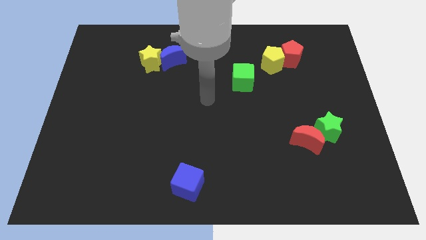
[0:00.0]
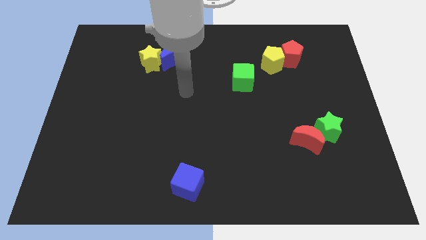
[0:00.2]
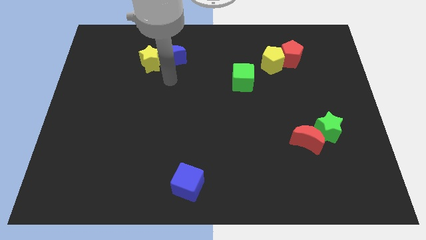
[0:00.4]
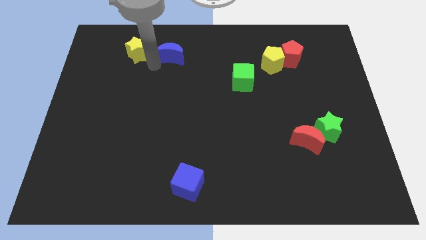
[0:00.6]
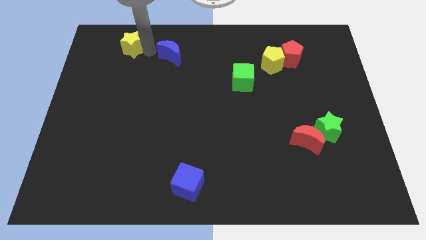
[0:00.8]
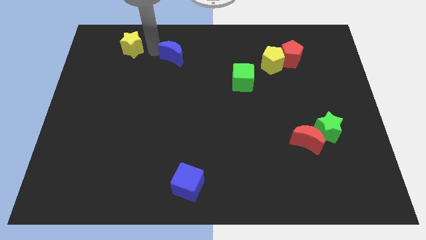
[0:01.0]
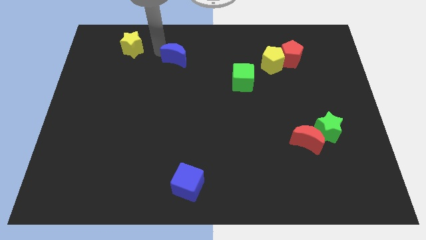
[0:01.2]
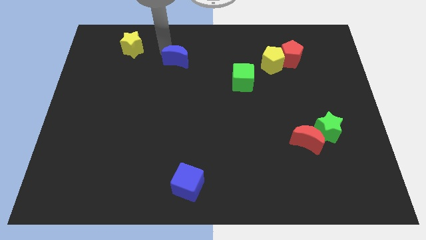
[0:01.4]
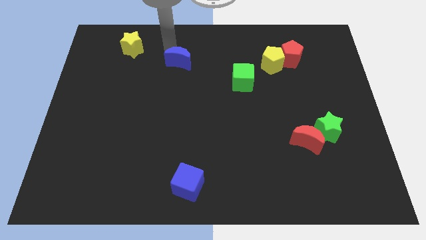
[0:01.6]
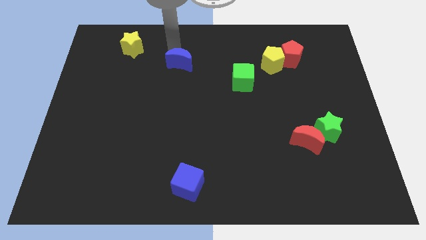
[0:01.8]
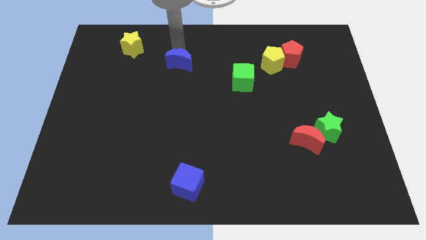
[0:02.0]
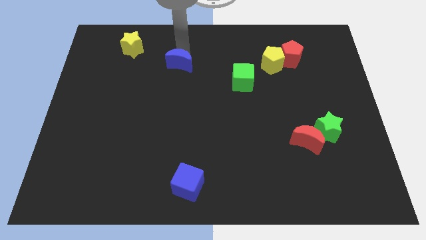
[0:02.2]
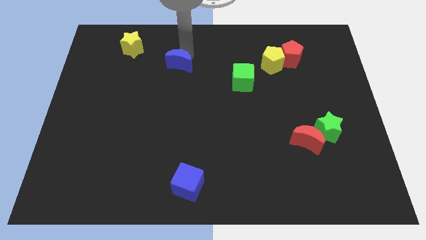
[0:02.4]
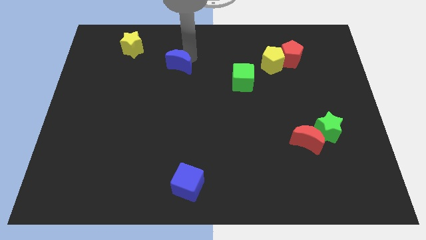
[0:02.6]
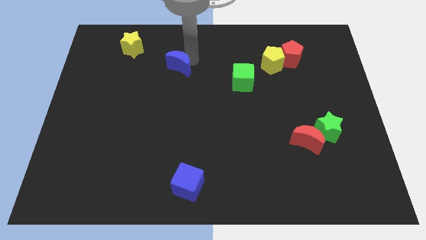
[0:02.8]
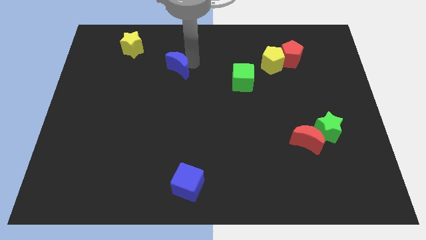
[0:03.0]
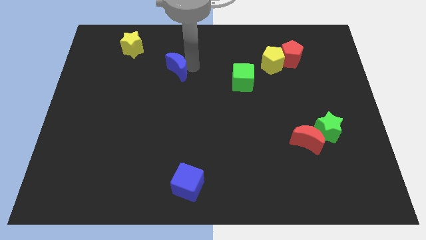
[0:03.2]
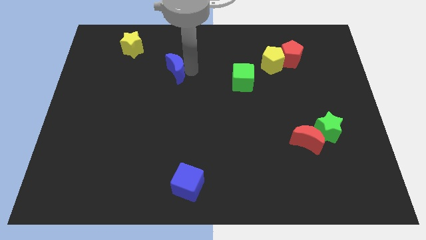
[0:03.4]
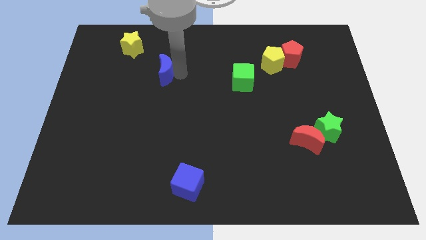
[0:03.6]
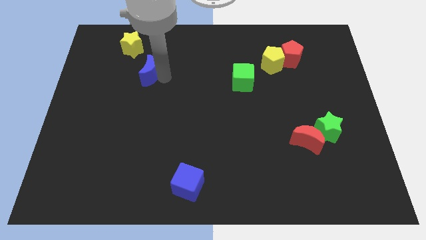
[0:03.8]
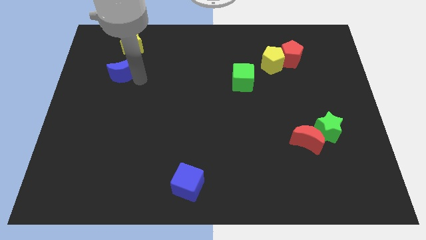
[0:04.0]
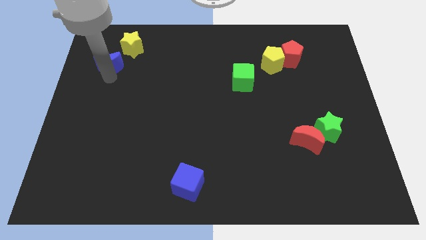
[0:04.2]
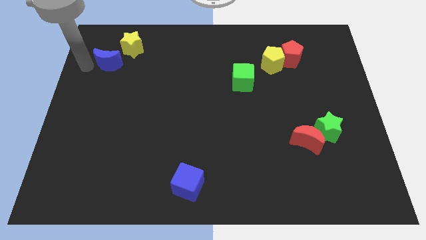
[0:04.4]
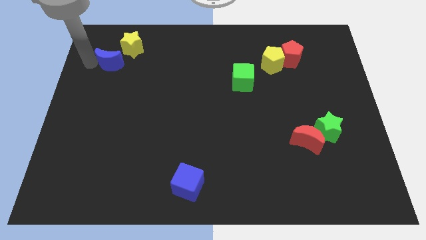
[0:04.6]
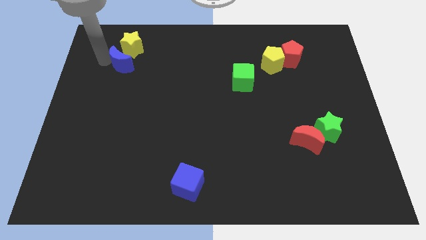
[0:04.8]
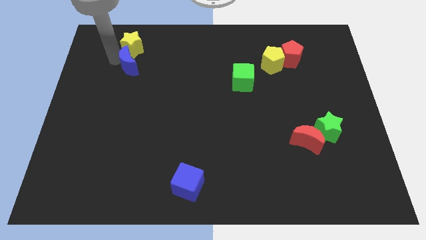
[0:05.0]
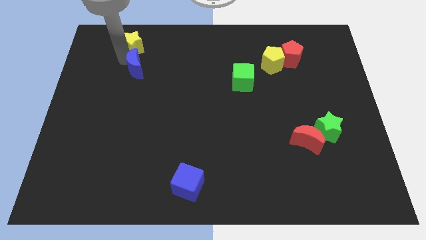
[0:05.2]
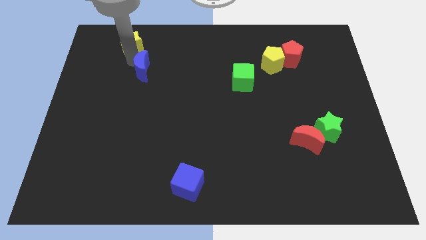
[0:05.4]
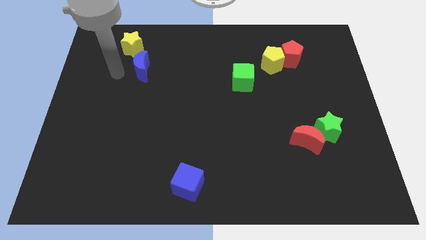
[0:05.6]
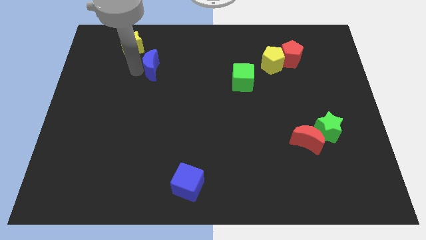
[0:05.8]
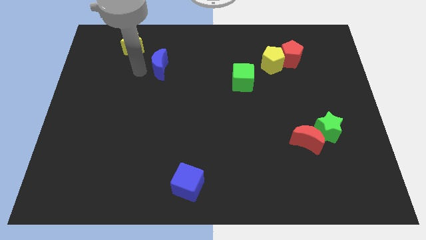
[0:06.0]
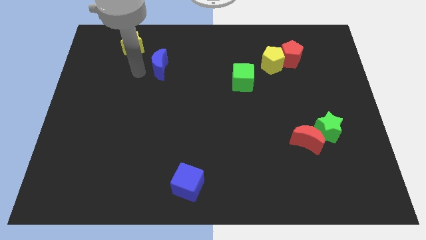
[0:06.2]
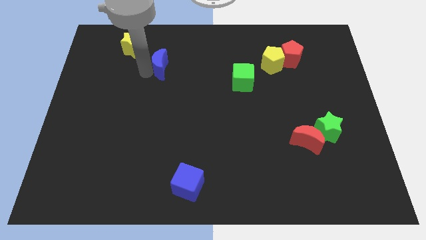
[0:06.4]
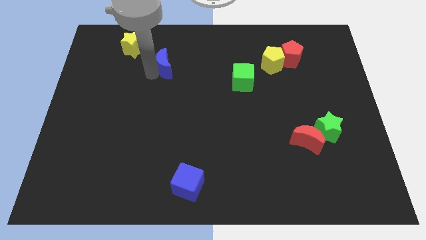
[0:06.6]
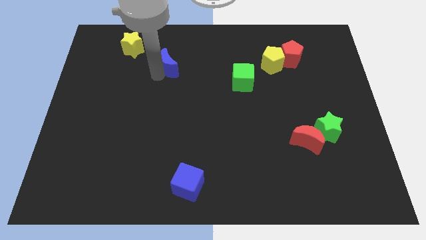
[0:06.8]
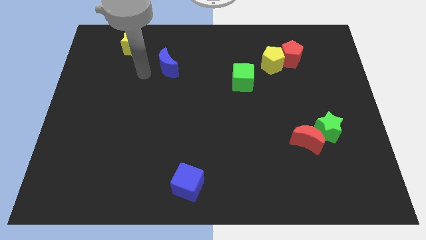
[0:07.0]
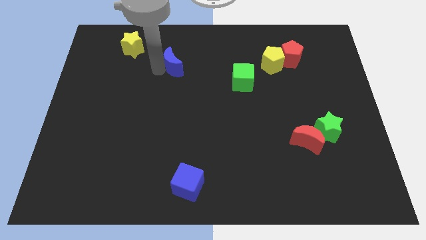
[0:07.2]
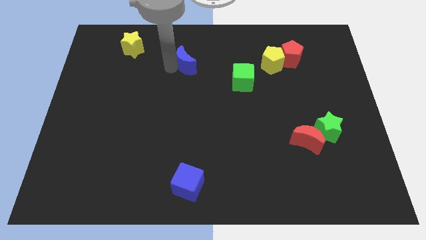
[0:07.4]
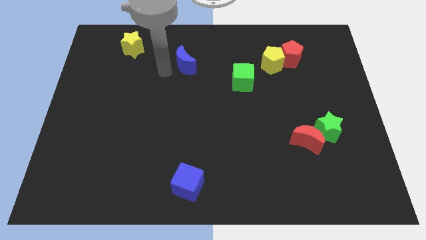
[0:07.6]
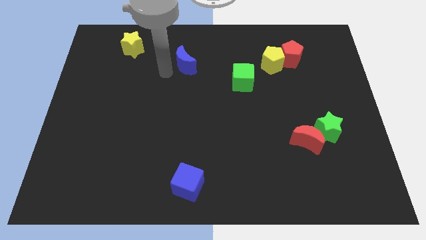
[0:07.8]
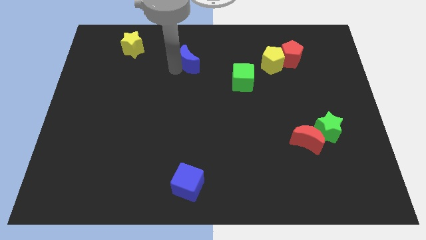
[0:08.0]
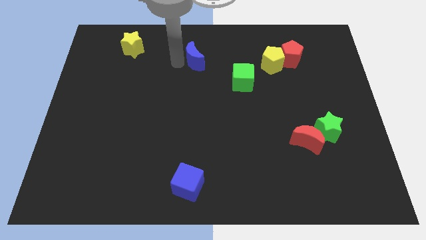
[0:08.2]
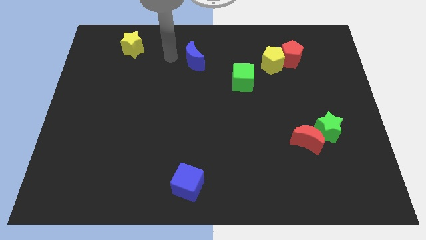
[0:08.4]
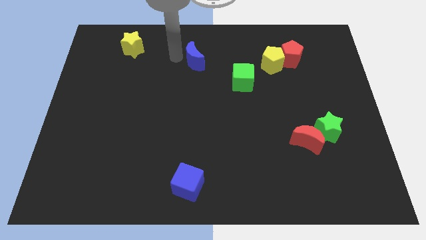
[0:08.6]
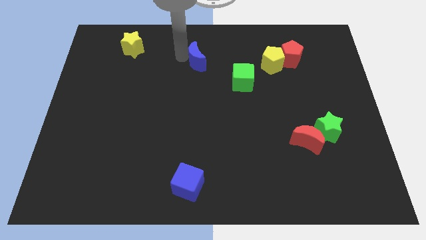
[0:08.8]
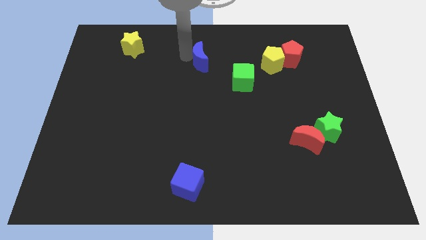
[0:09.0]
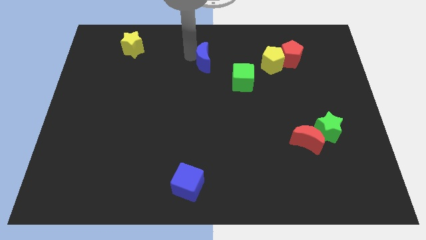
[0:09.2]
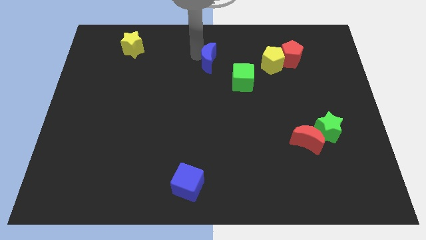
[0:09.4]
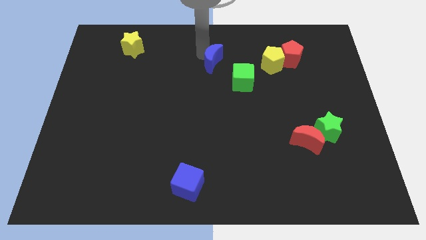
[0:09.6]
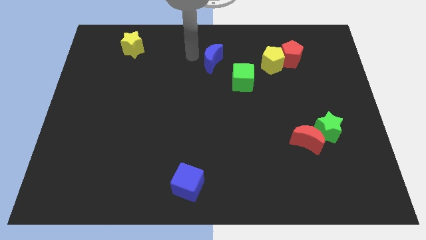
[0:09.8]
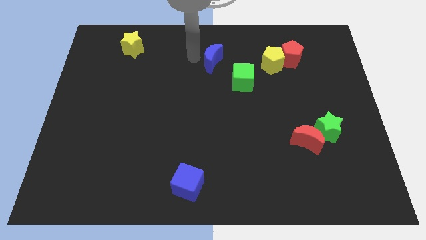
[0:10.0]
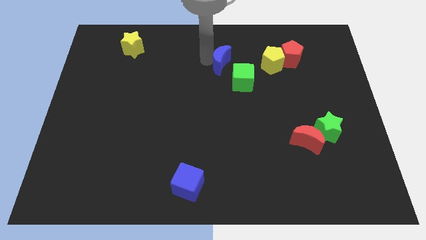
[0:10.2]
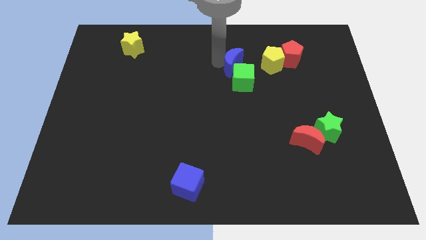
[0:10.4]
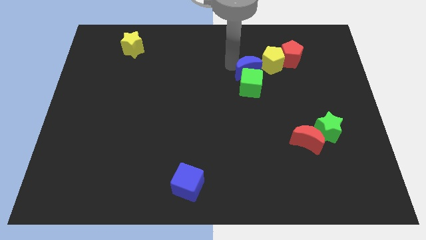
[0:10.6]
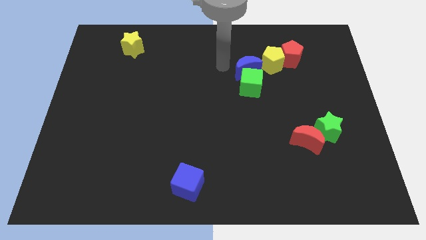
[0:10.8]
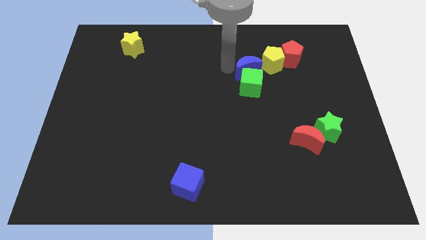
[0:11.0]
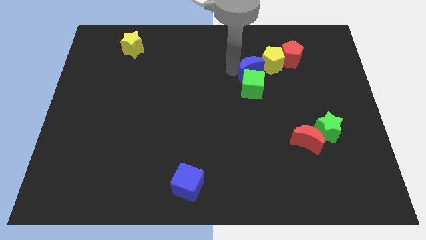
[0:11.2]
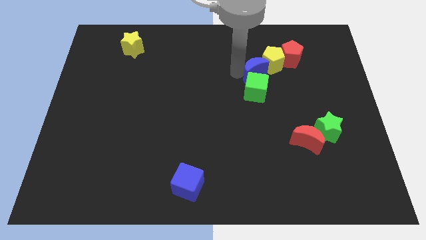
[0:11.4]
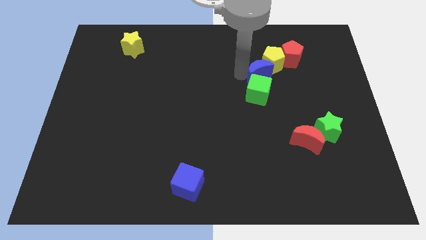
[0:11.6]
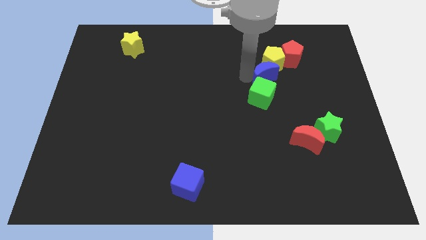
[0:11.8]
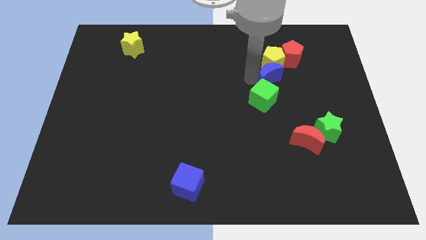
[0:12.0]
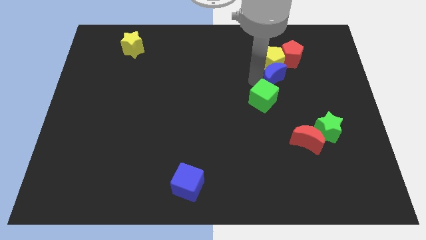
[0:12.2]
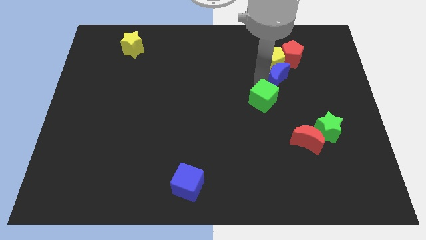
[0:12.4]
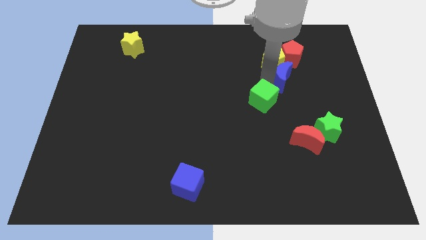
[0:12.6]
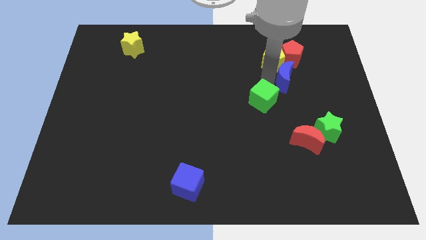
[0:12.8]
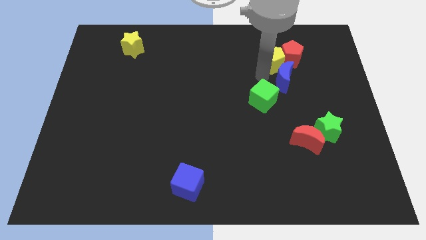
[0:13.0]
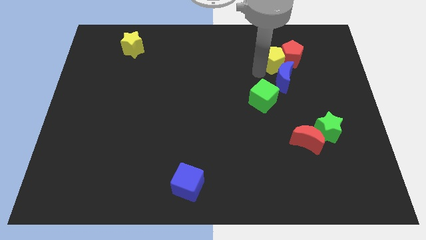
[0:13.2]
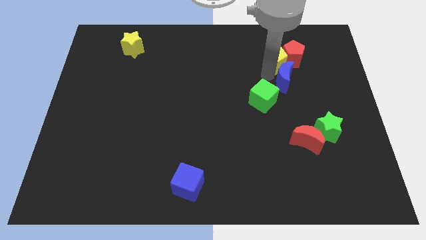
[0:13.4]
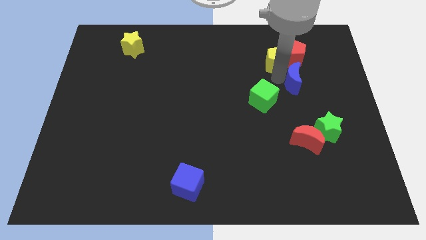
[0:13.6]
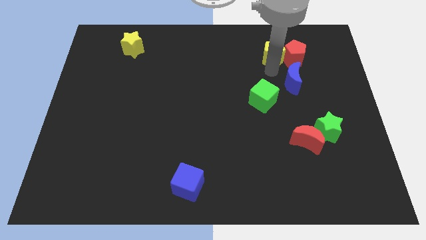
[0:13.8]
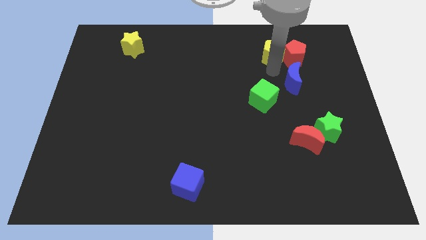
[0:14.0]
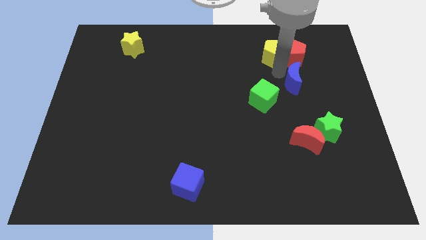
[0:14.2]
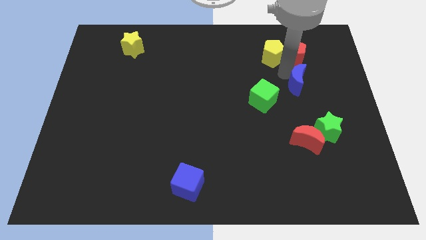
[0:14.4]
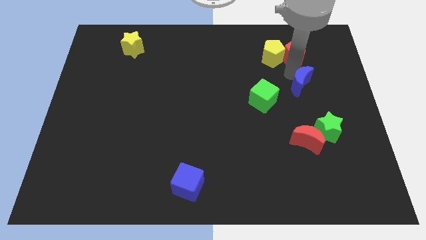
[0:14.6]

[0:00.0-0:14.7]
push the blue moon to the top of the green star
